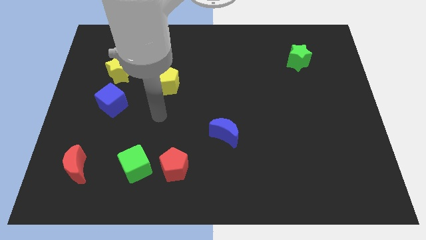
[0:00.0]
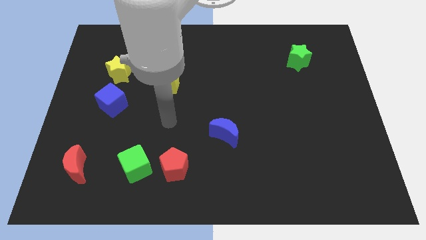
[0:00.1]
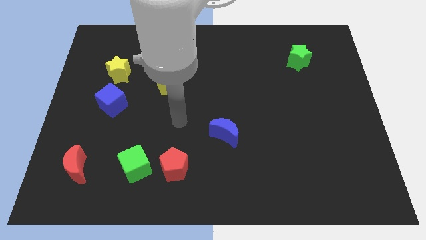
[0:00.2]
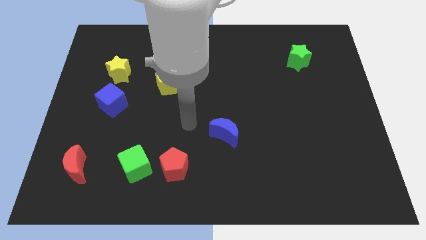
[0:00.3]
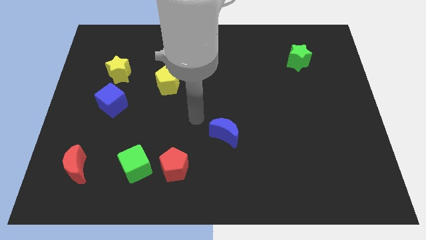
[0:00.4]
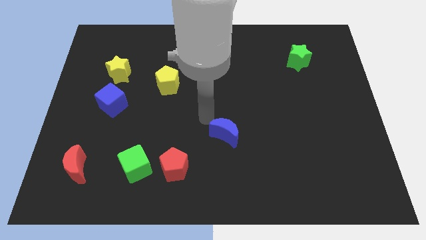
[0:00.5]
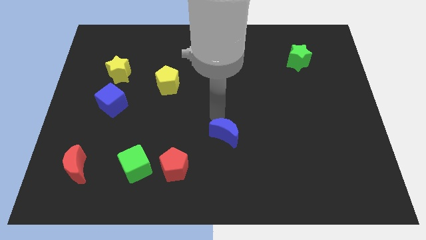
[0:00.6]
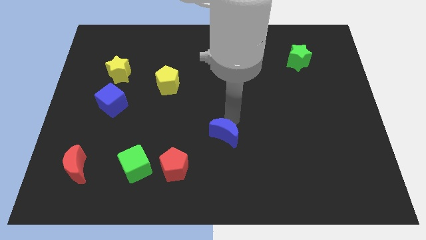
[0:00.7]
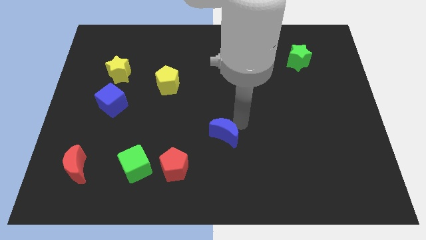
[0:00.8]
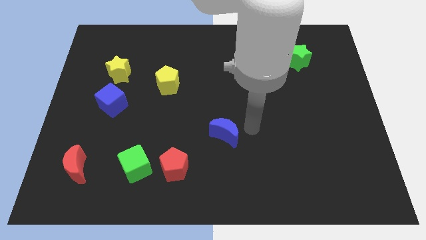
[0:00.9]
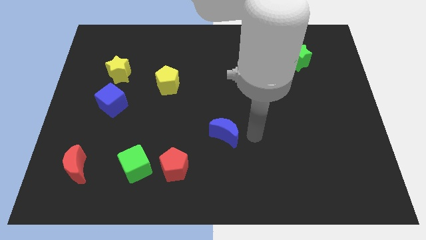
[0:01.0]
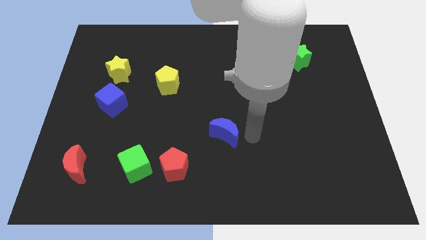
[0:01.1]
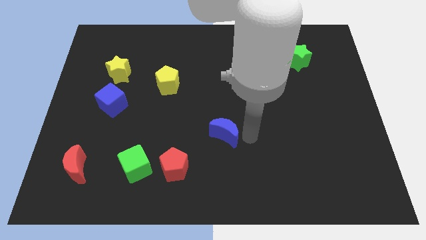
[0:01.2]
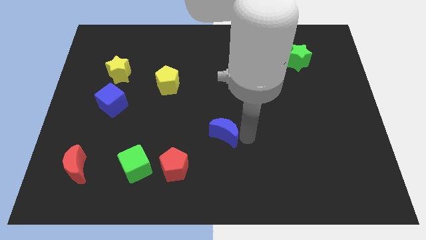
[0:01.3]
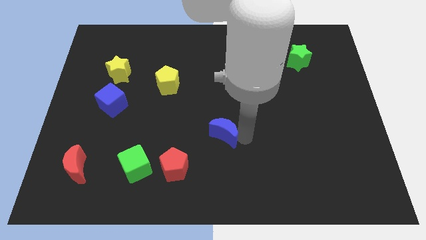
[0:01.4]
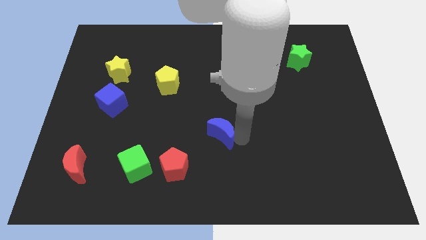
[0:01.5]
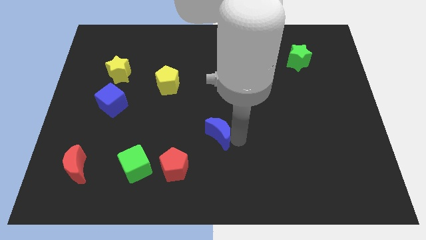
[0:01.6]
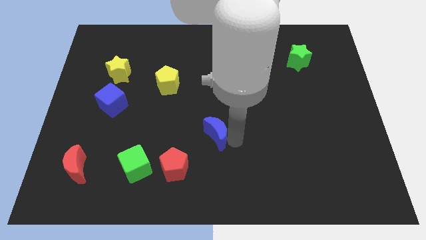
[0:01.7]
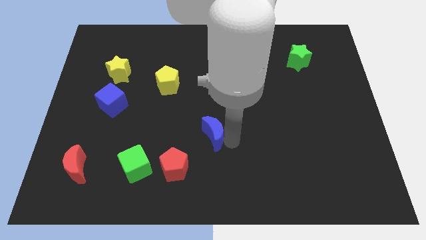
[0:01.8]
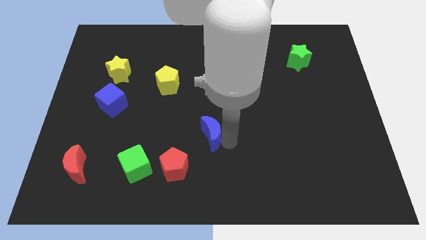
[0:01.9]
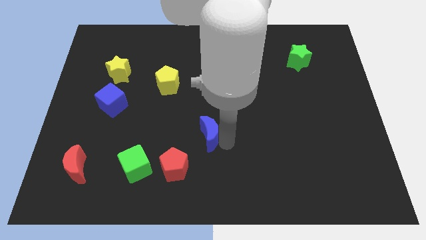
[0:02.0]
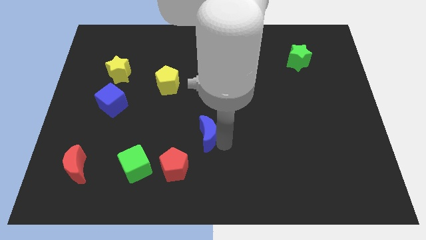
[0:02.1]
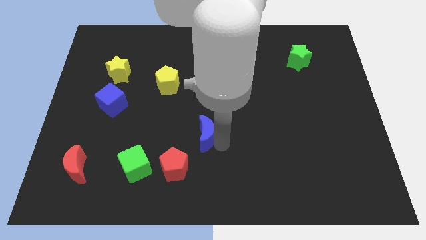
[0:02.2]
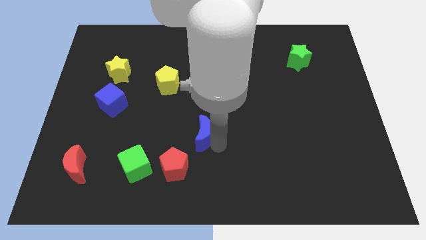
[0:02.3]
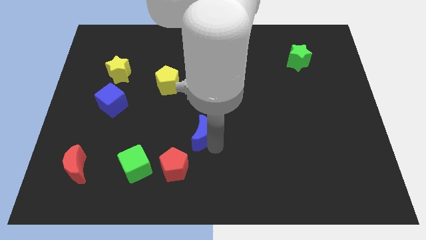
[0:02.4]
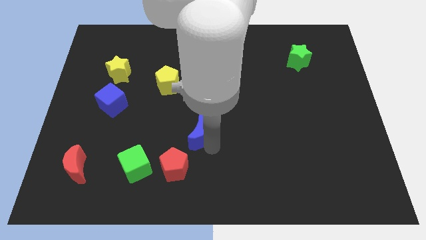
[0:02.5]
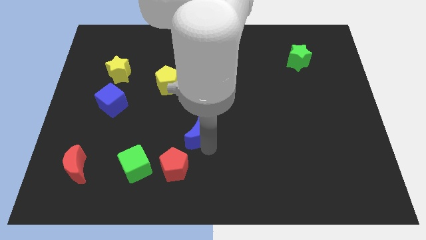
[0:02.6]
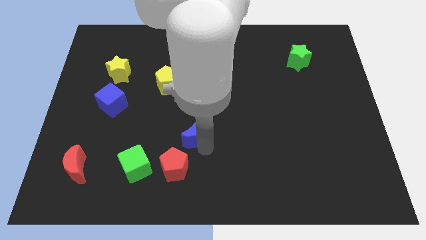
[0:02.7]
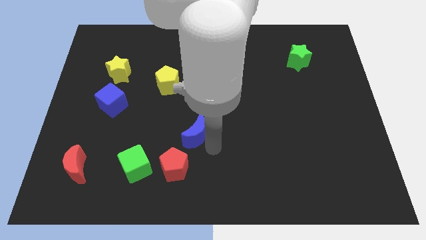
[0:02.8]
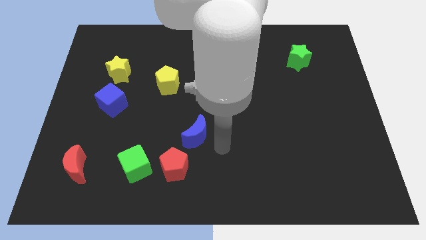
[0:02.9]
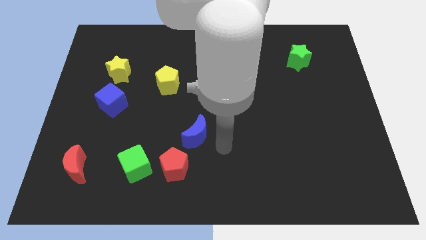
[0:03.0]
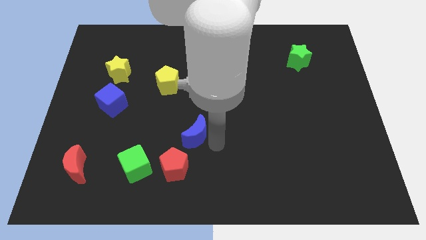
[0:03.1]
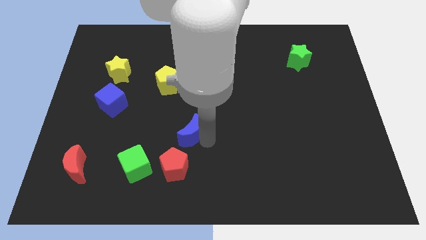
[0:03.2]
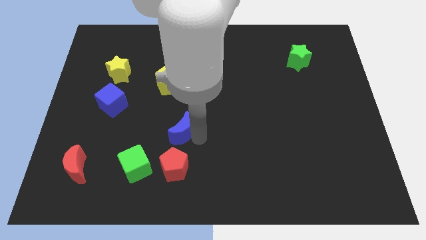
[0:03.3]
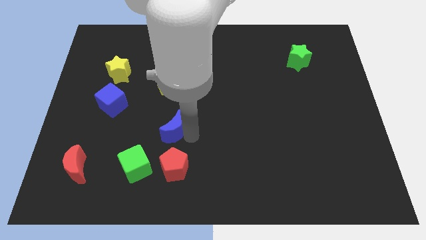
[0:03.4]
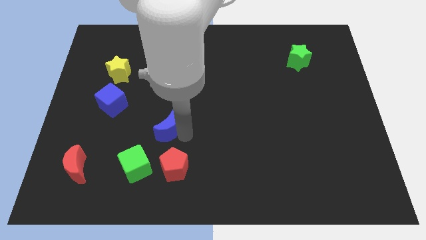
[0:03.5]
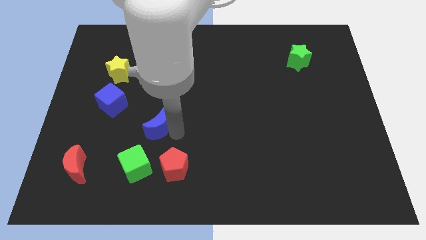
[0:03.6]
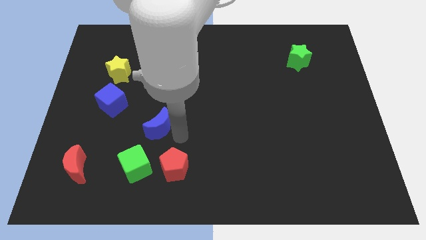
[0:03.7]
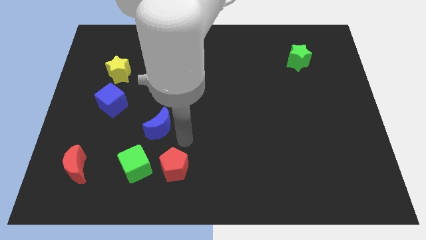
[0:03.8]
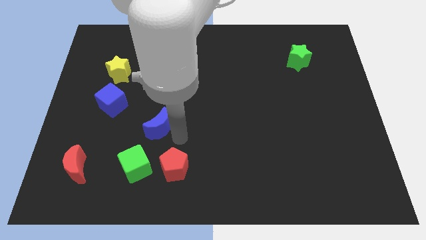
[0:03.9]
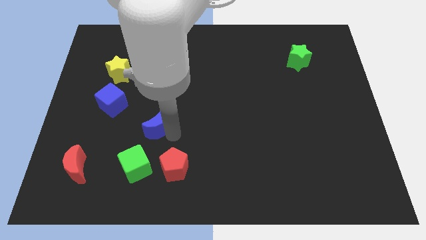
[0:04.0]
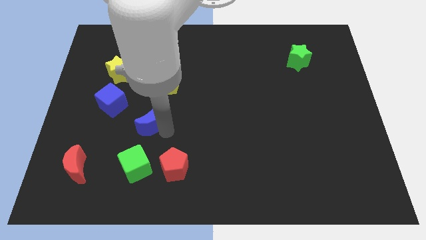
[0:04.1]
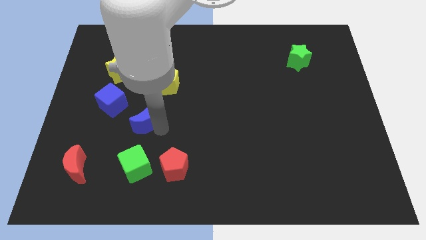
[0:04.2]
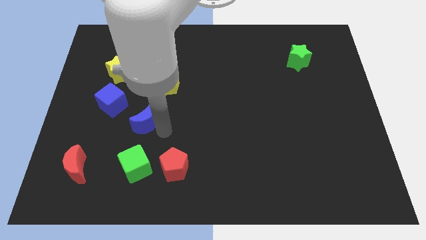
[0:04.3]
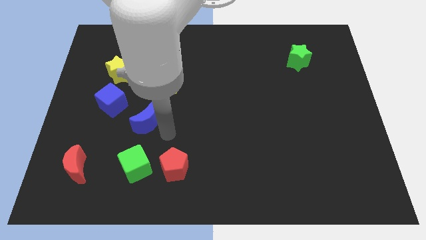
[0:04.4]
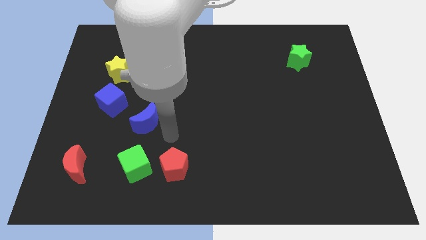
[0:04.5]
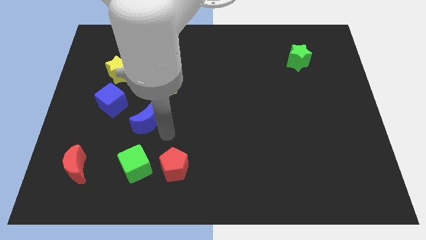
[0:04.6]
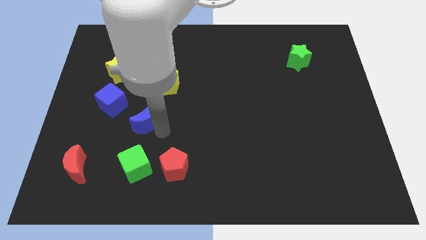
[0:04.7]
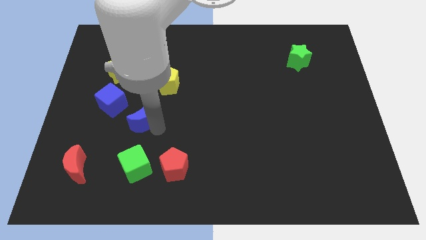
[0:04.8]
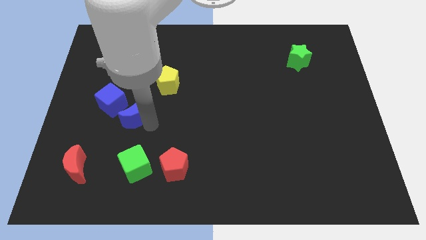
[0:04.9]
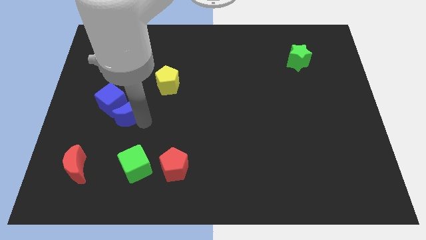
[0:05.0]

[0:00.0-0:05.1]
push the blue moon next to the blue cube

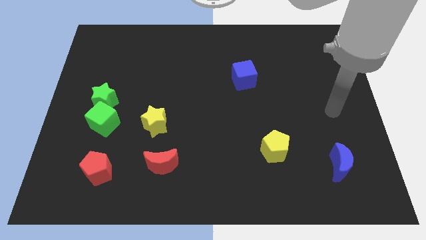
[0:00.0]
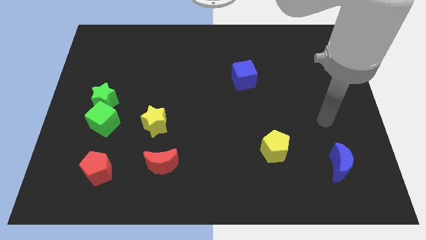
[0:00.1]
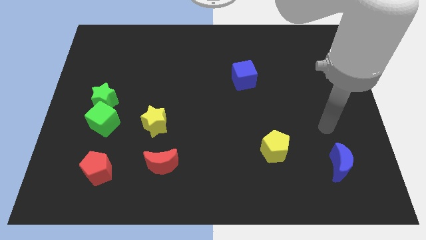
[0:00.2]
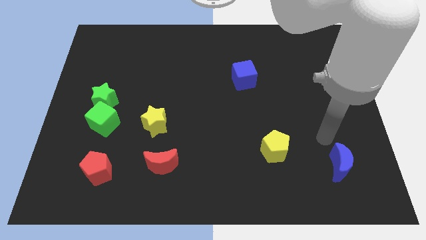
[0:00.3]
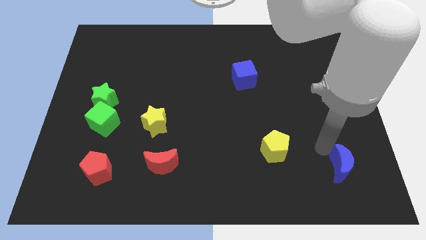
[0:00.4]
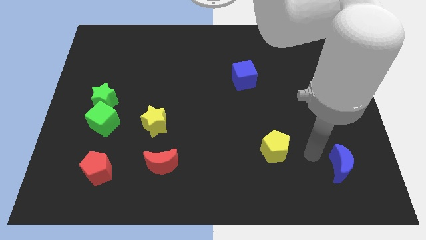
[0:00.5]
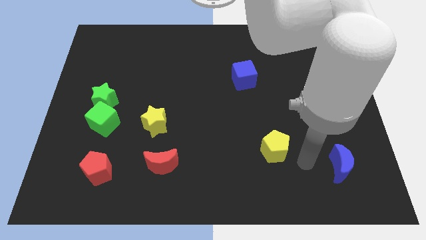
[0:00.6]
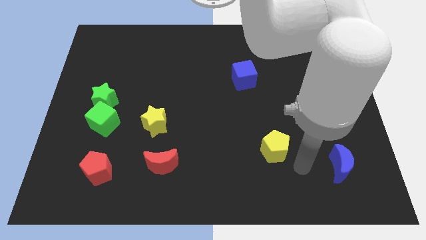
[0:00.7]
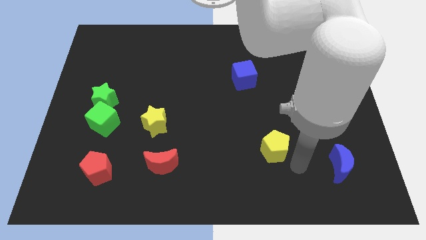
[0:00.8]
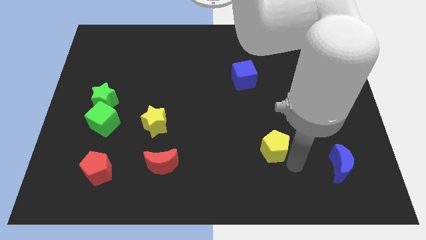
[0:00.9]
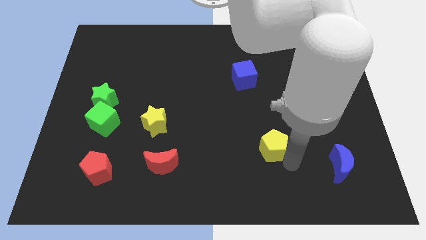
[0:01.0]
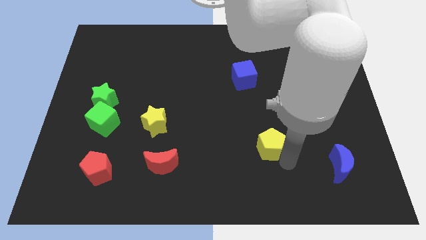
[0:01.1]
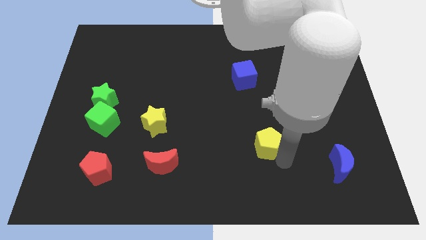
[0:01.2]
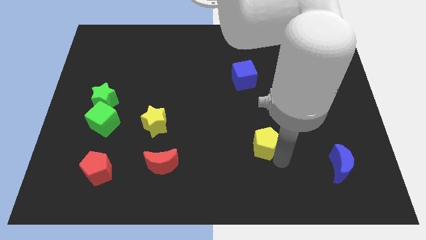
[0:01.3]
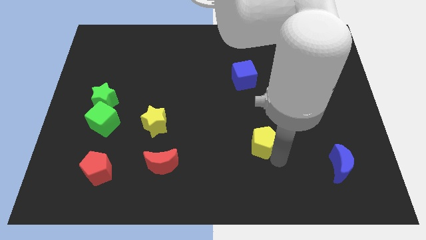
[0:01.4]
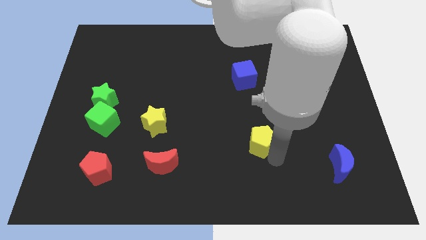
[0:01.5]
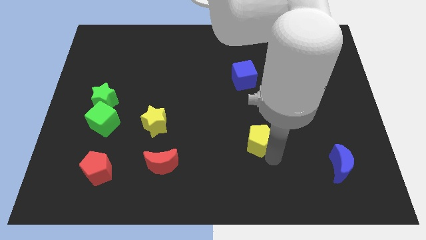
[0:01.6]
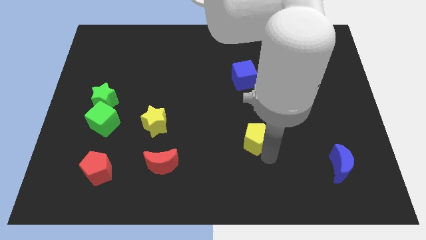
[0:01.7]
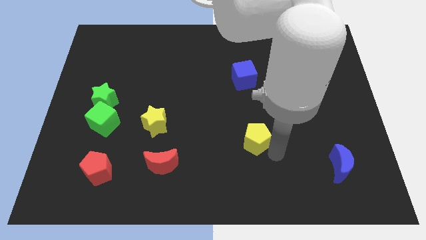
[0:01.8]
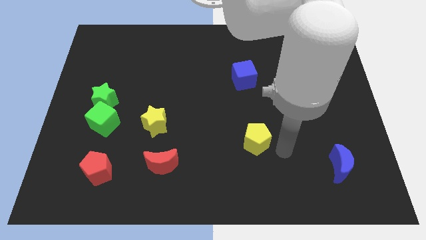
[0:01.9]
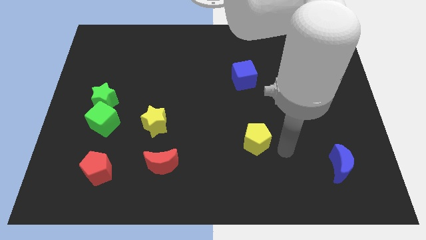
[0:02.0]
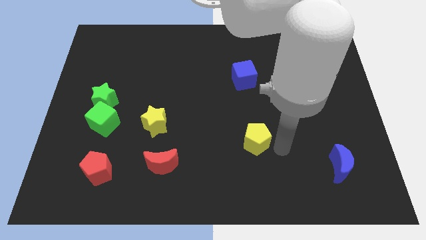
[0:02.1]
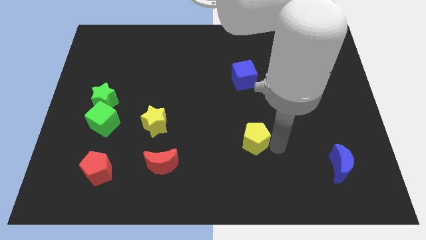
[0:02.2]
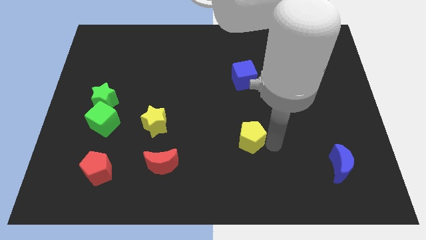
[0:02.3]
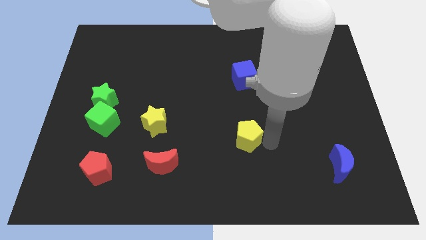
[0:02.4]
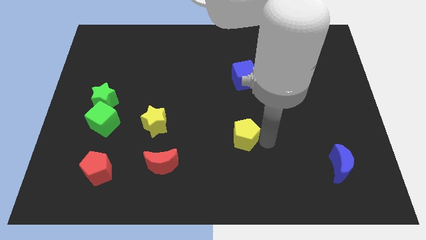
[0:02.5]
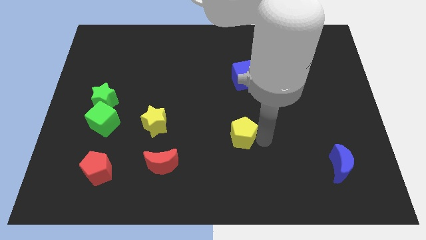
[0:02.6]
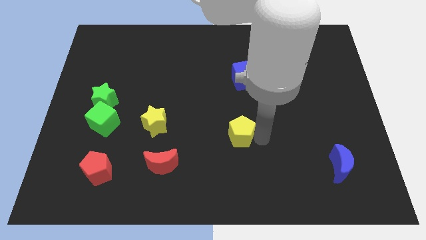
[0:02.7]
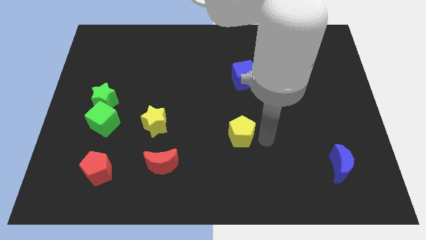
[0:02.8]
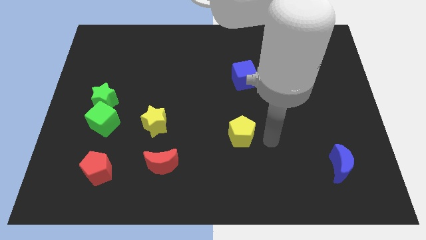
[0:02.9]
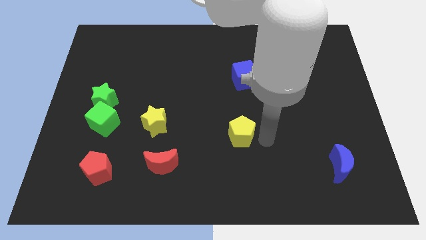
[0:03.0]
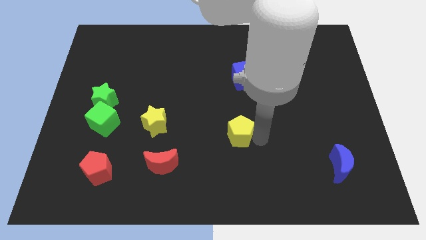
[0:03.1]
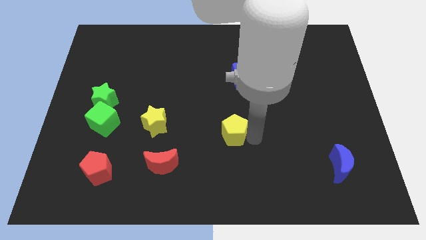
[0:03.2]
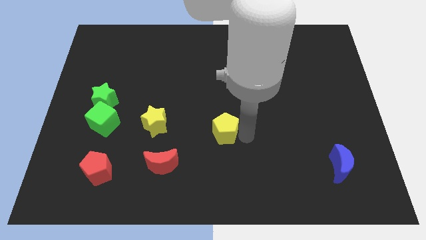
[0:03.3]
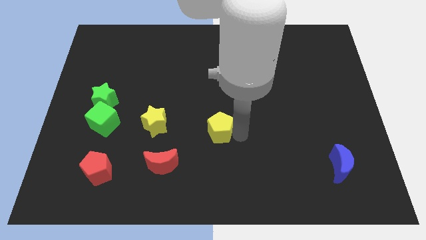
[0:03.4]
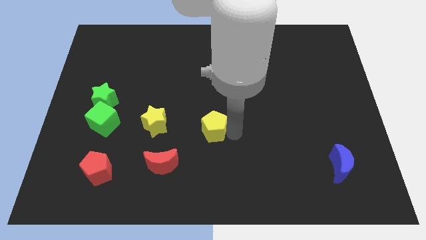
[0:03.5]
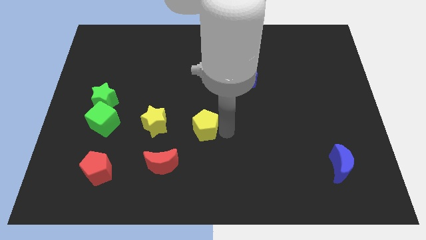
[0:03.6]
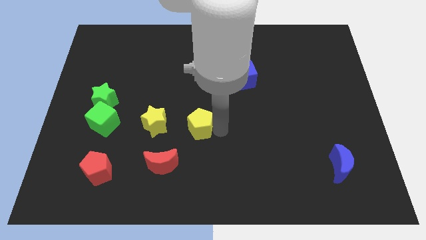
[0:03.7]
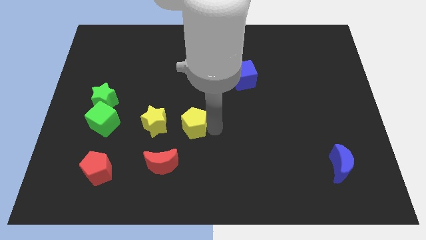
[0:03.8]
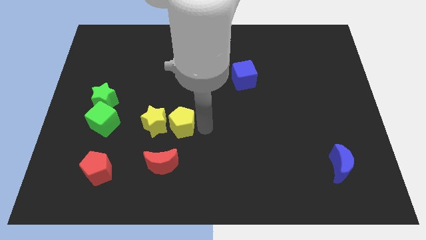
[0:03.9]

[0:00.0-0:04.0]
move the yellow pentagon close to the yellow star
